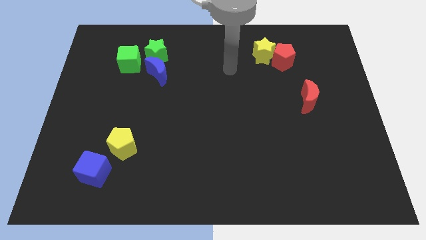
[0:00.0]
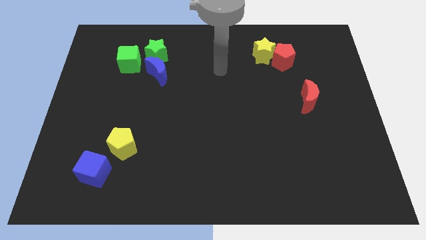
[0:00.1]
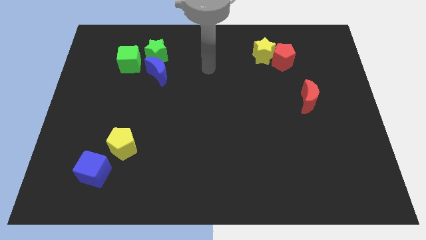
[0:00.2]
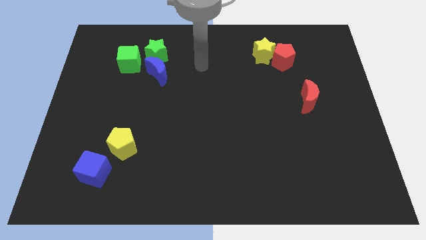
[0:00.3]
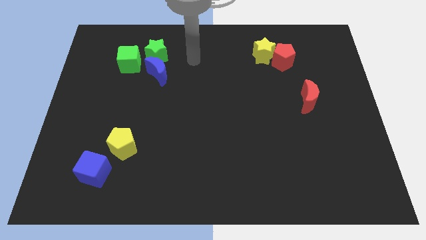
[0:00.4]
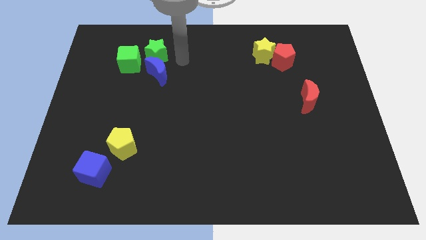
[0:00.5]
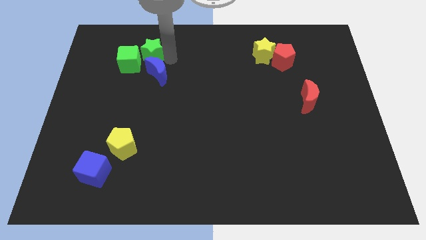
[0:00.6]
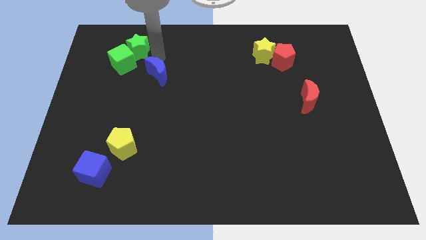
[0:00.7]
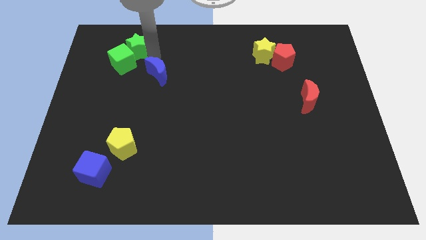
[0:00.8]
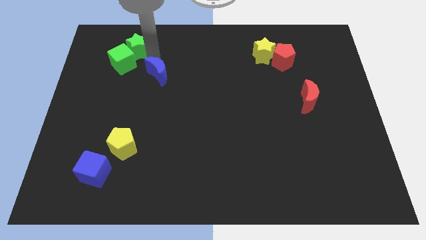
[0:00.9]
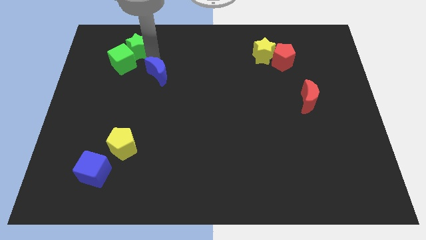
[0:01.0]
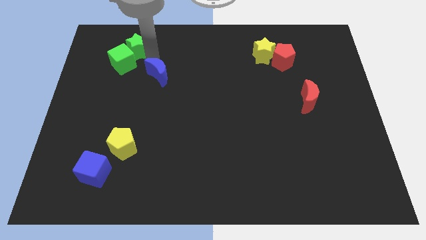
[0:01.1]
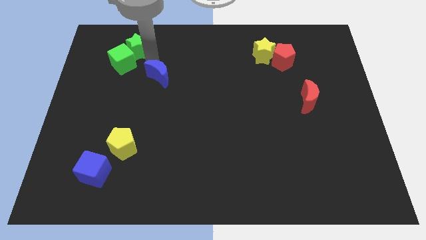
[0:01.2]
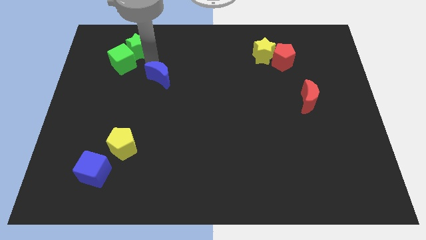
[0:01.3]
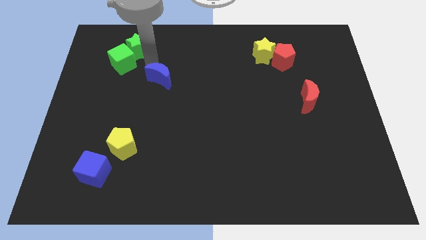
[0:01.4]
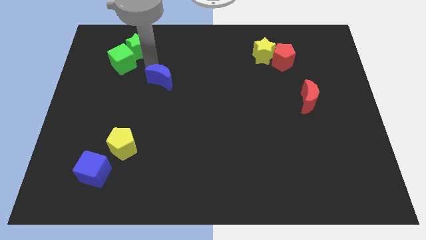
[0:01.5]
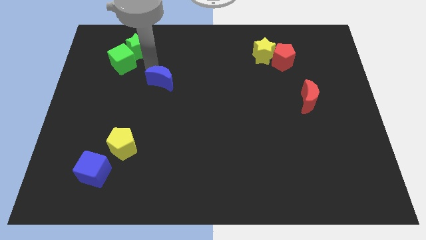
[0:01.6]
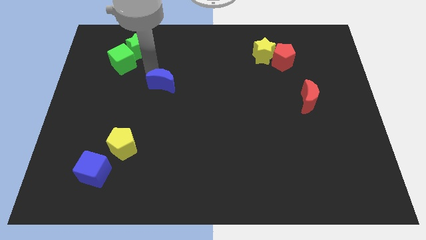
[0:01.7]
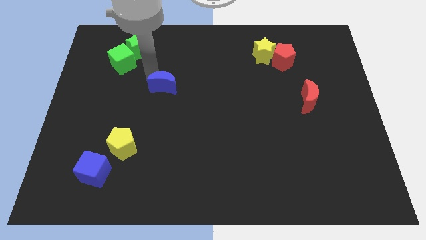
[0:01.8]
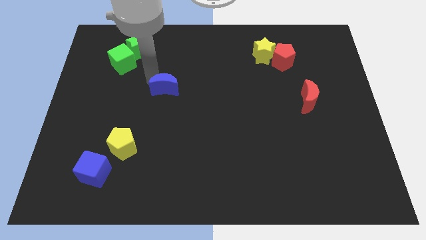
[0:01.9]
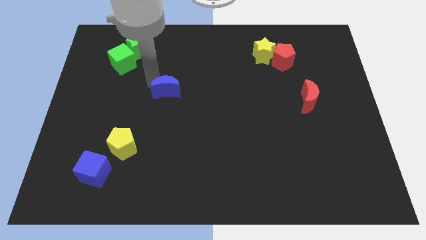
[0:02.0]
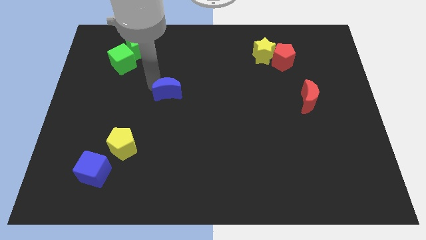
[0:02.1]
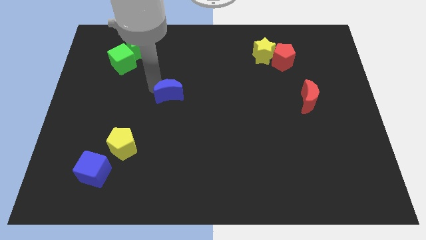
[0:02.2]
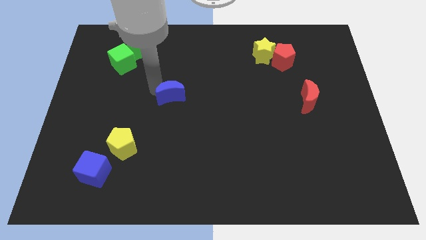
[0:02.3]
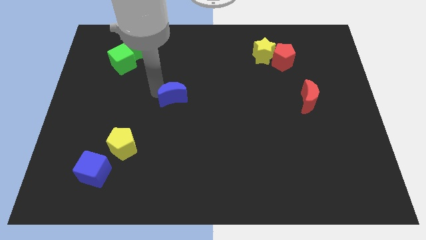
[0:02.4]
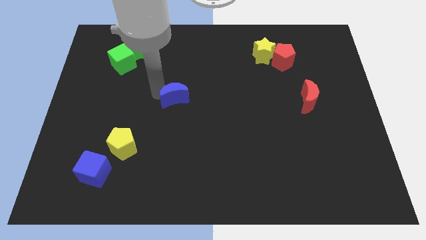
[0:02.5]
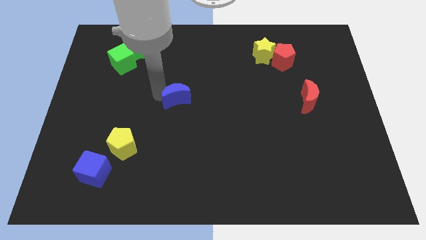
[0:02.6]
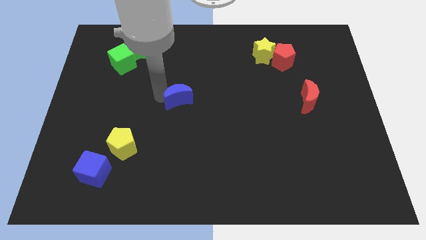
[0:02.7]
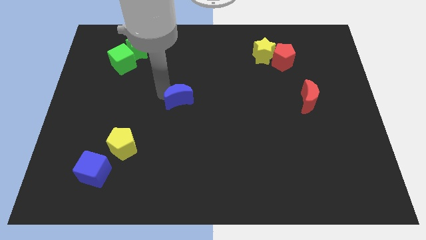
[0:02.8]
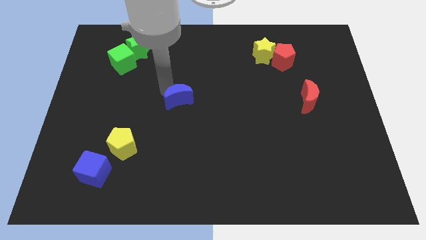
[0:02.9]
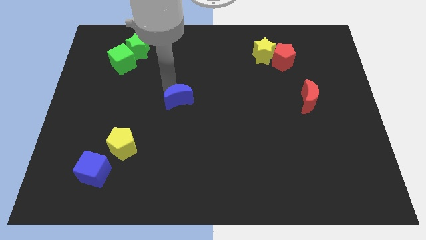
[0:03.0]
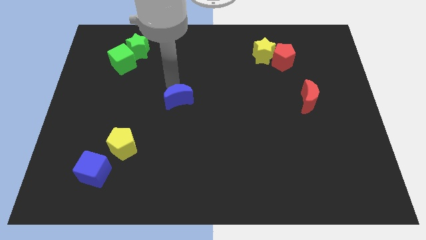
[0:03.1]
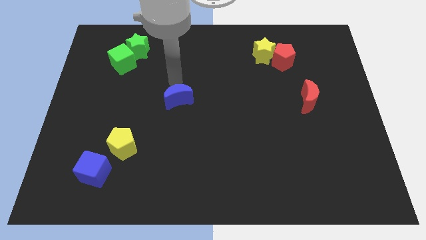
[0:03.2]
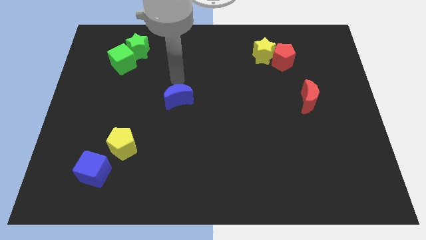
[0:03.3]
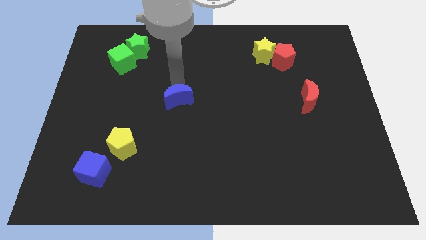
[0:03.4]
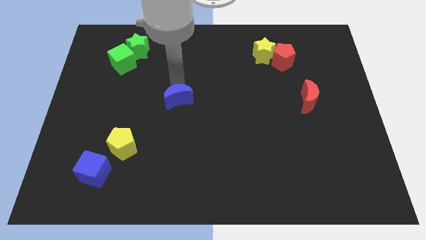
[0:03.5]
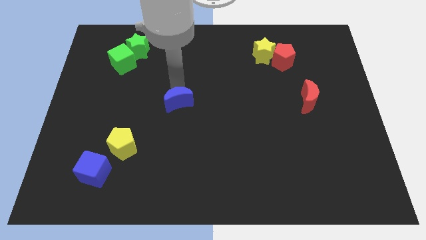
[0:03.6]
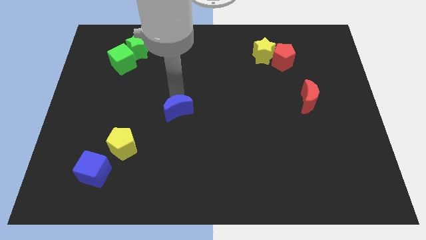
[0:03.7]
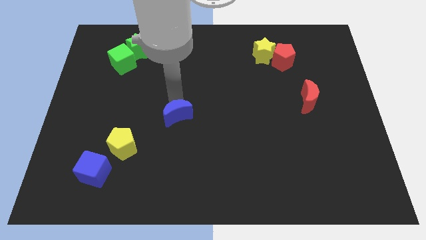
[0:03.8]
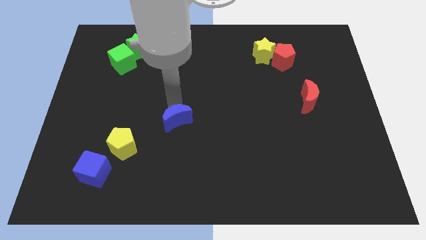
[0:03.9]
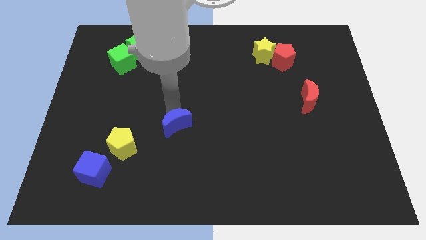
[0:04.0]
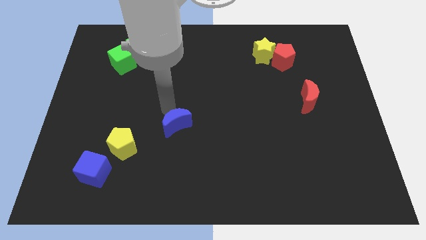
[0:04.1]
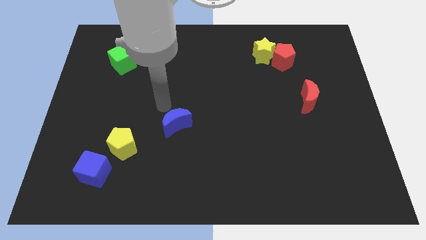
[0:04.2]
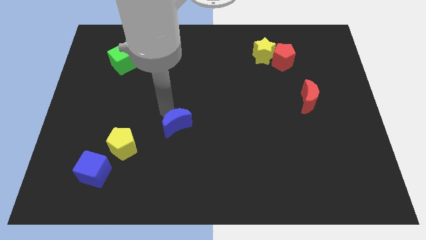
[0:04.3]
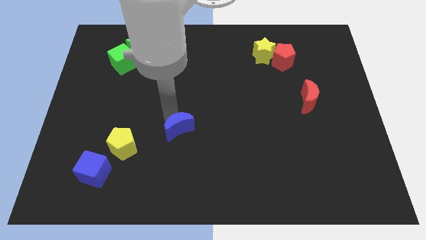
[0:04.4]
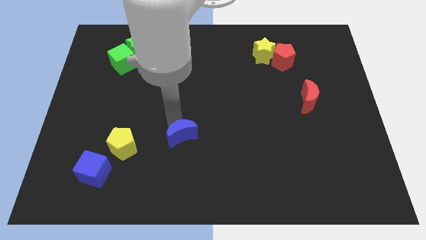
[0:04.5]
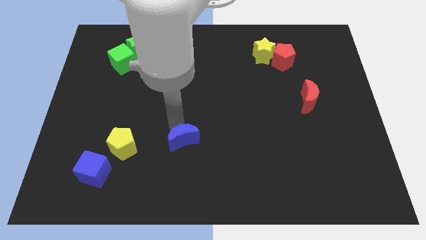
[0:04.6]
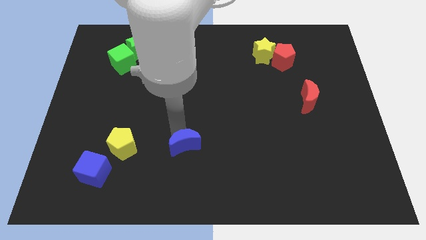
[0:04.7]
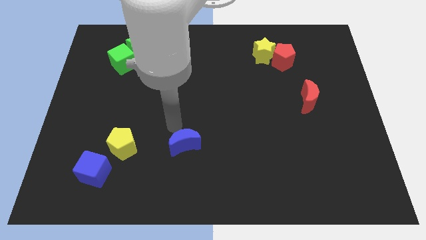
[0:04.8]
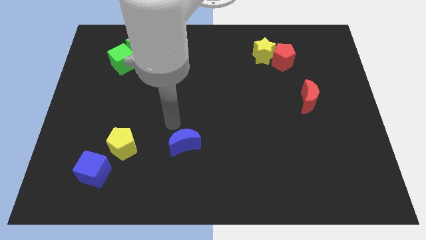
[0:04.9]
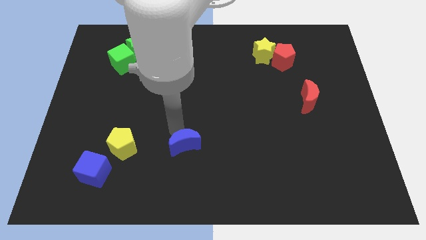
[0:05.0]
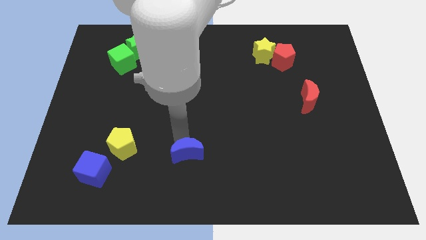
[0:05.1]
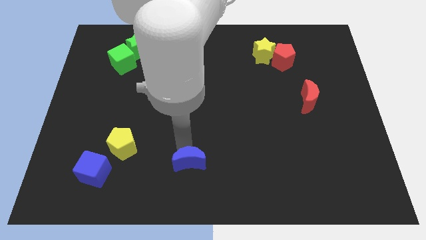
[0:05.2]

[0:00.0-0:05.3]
move the blue moon to the bottom

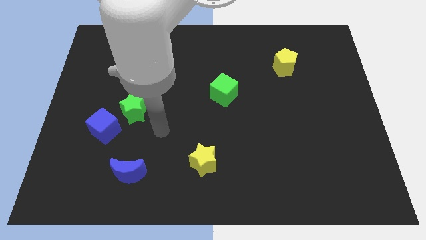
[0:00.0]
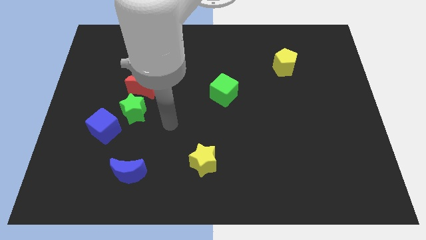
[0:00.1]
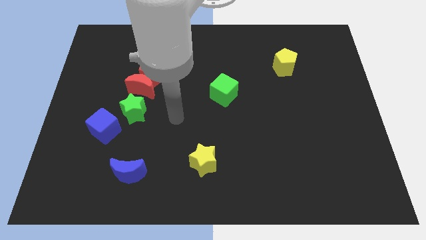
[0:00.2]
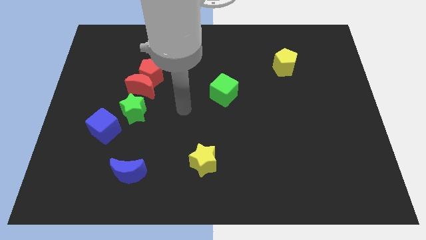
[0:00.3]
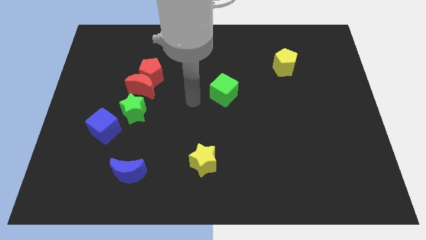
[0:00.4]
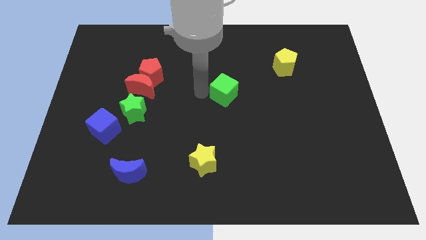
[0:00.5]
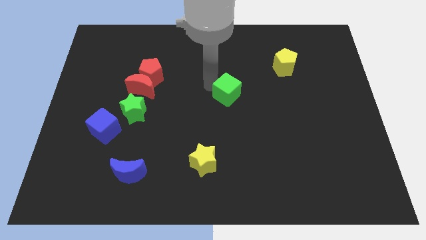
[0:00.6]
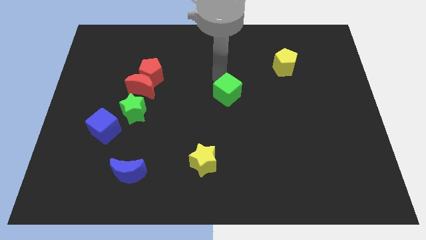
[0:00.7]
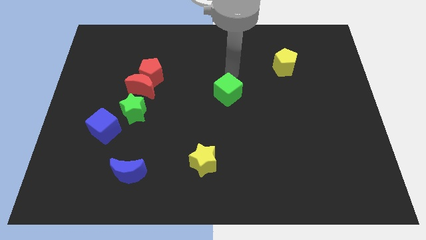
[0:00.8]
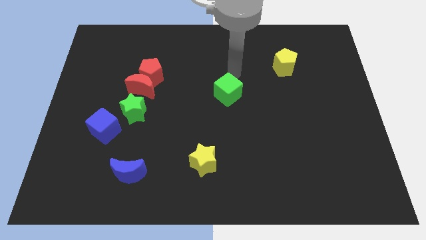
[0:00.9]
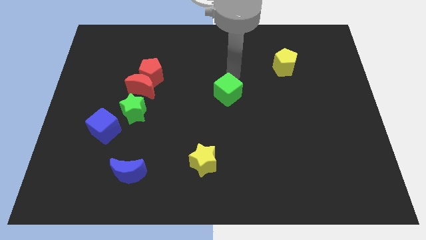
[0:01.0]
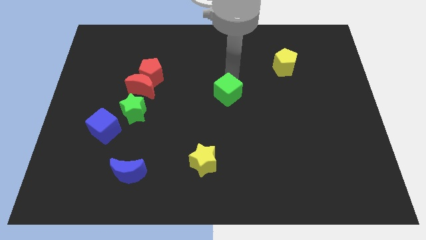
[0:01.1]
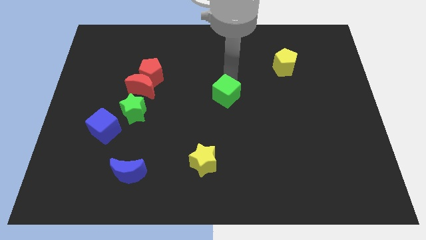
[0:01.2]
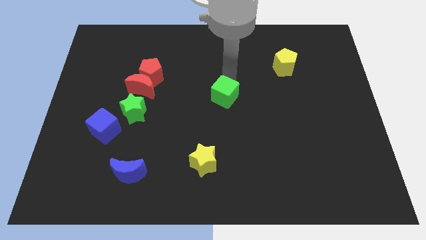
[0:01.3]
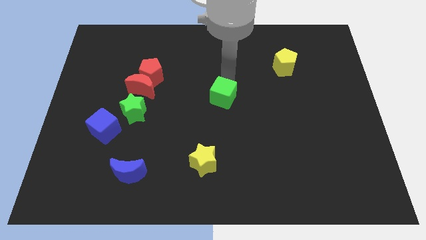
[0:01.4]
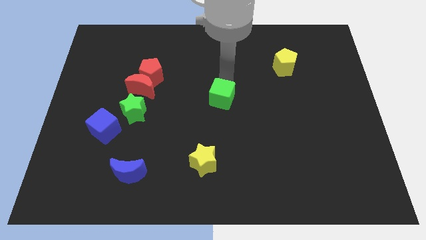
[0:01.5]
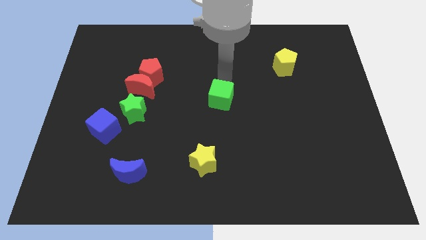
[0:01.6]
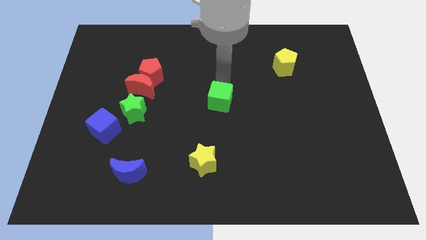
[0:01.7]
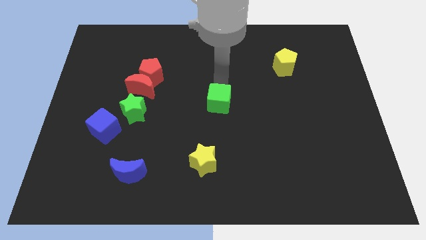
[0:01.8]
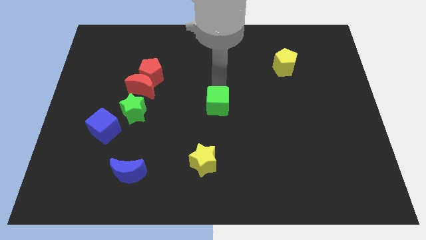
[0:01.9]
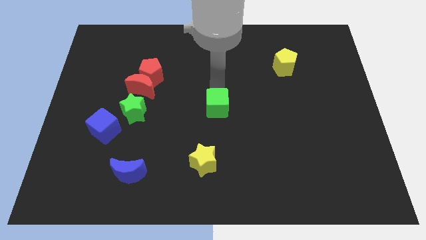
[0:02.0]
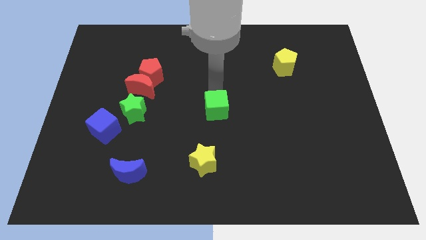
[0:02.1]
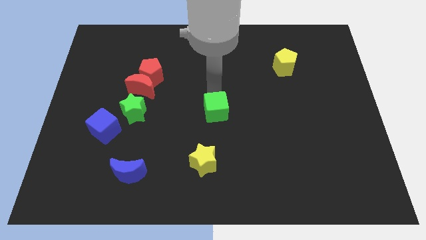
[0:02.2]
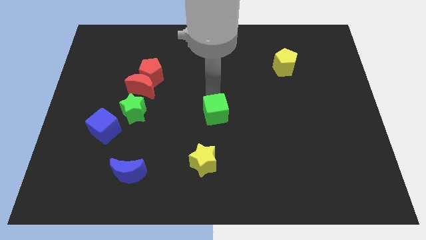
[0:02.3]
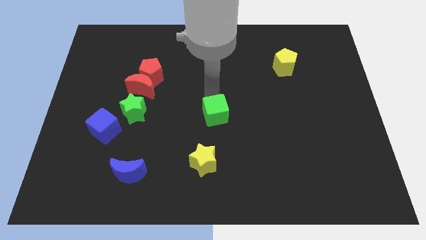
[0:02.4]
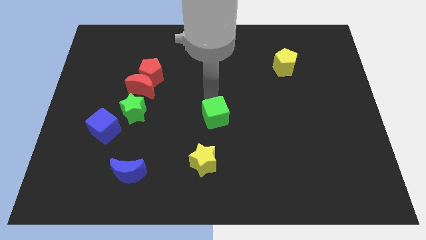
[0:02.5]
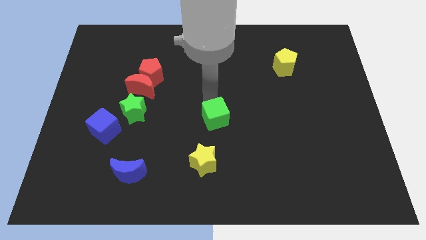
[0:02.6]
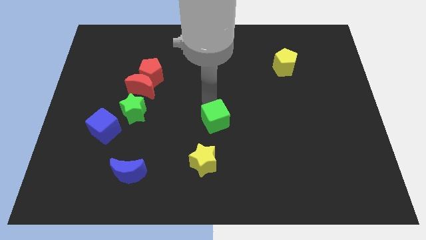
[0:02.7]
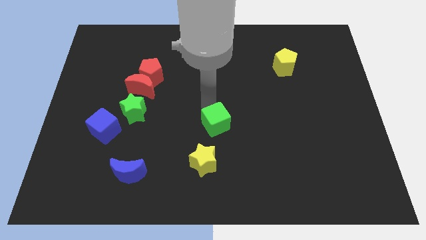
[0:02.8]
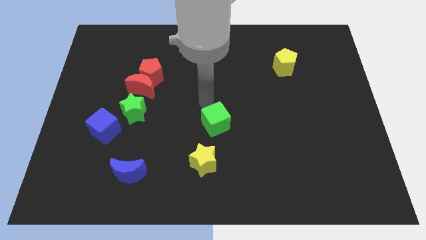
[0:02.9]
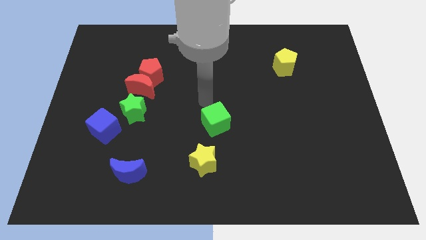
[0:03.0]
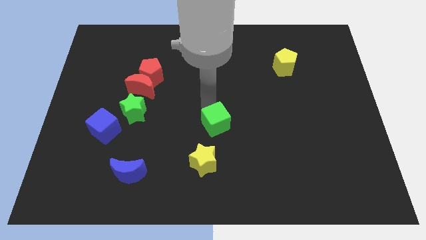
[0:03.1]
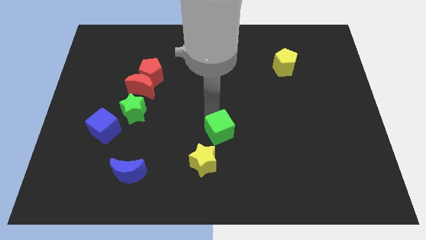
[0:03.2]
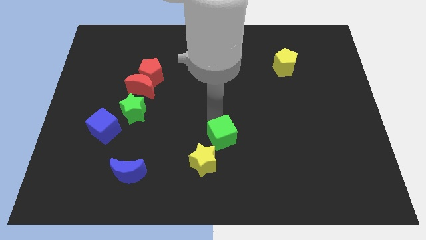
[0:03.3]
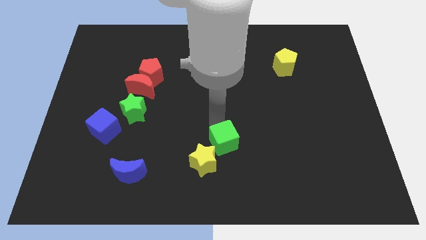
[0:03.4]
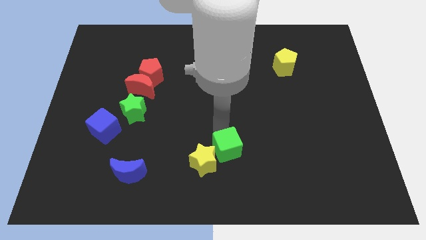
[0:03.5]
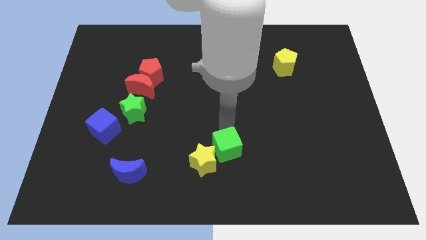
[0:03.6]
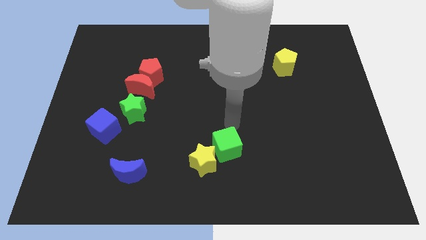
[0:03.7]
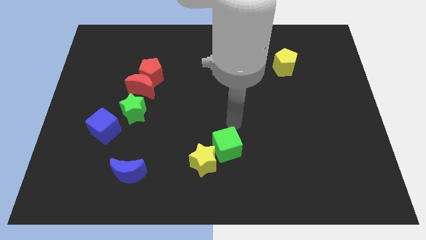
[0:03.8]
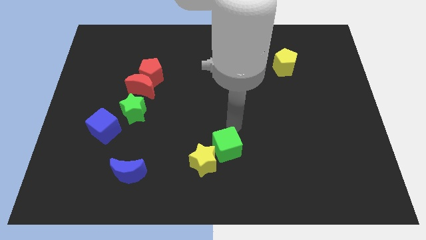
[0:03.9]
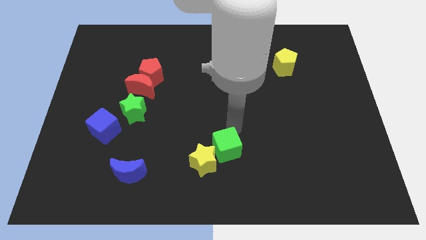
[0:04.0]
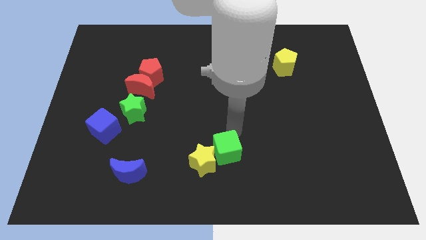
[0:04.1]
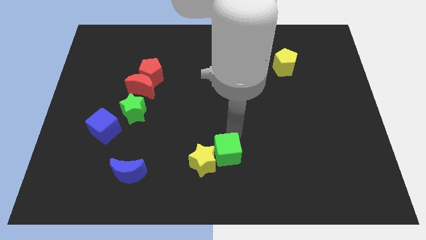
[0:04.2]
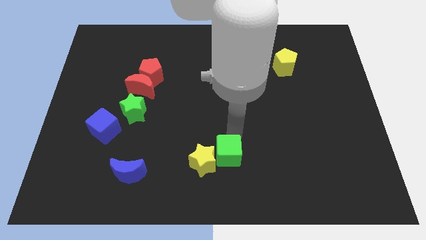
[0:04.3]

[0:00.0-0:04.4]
move the green cube to the bottom side
